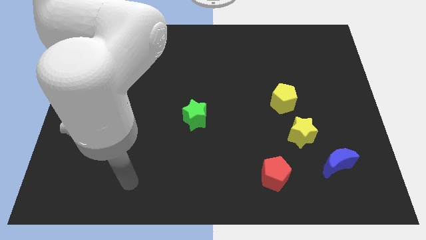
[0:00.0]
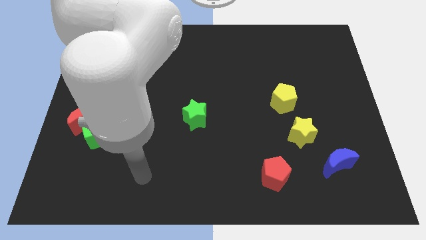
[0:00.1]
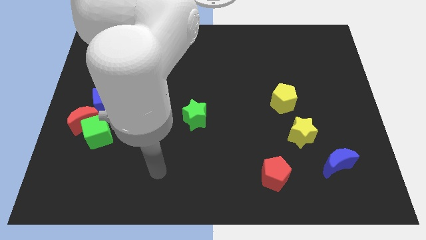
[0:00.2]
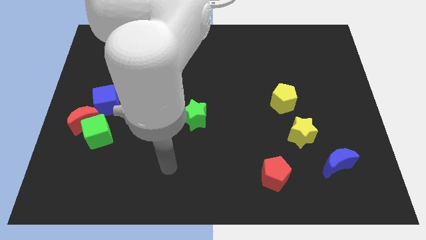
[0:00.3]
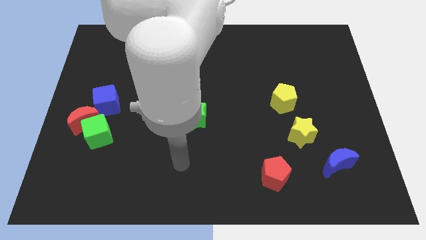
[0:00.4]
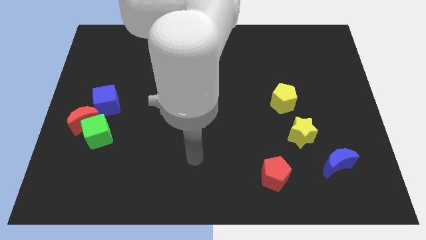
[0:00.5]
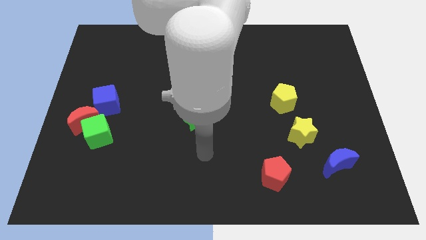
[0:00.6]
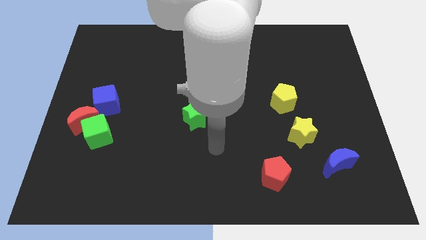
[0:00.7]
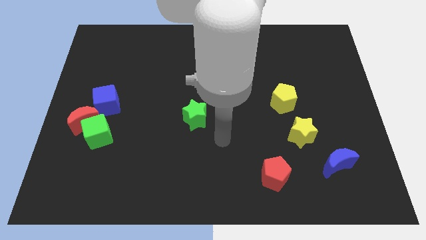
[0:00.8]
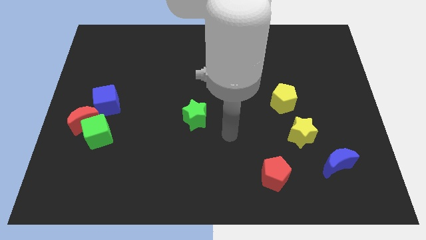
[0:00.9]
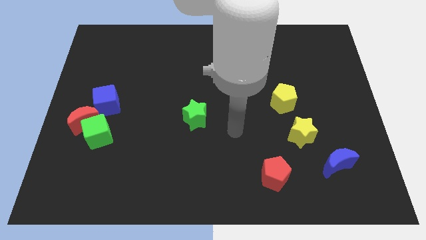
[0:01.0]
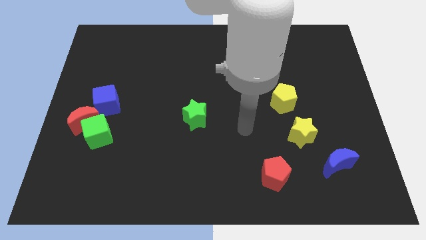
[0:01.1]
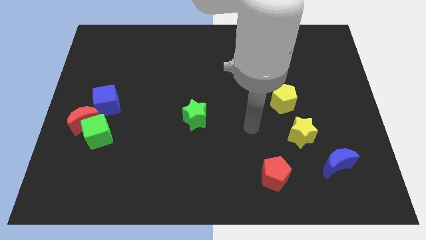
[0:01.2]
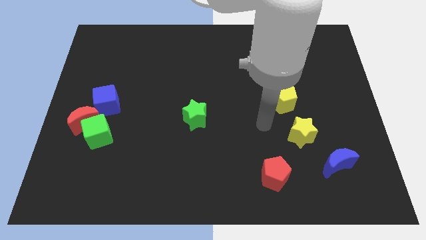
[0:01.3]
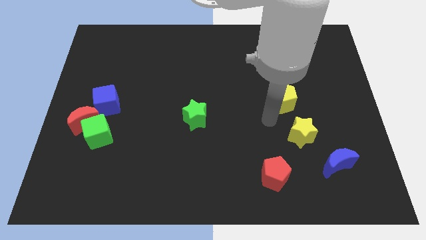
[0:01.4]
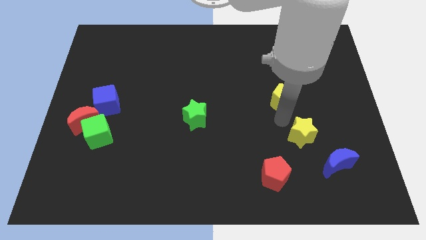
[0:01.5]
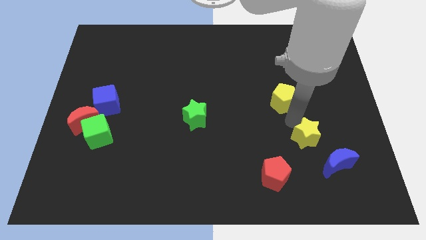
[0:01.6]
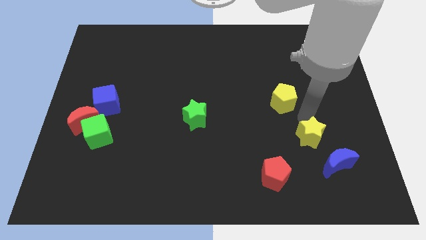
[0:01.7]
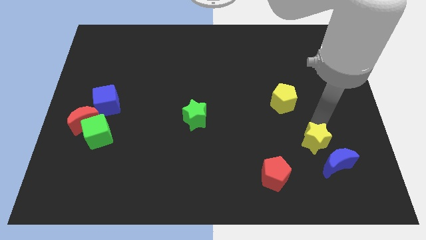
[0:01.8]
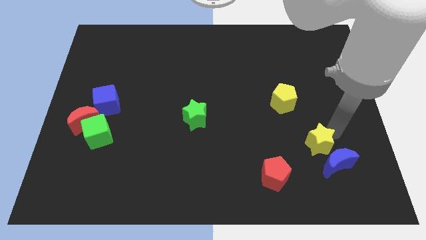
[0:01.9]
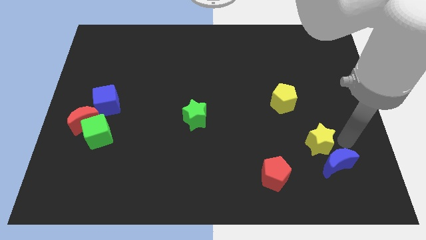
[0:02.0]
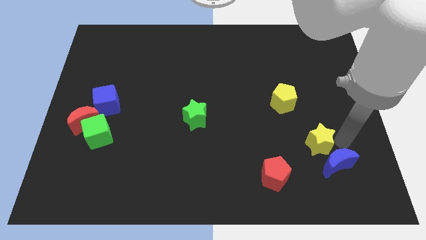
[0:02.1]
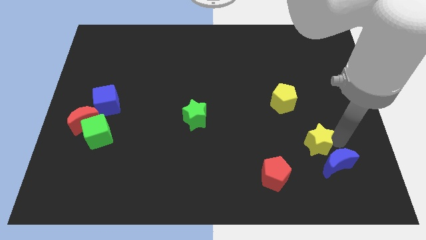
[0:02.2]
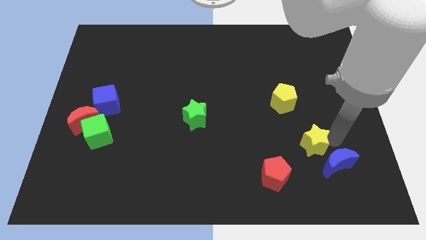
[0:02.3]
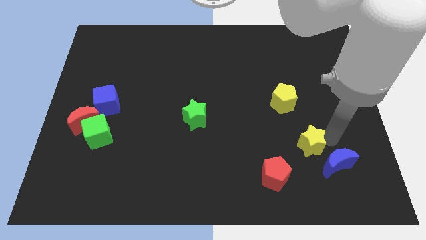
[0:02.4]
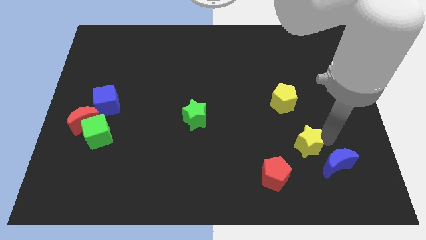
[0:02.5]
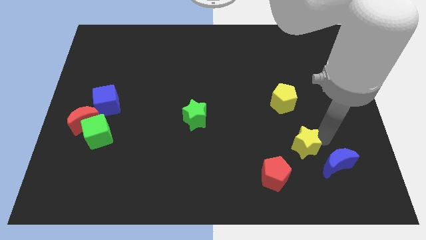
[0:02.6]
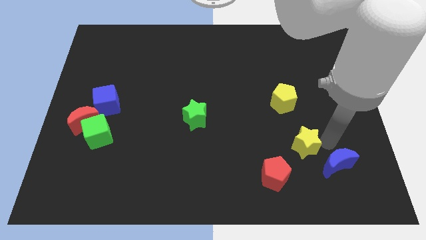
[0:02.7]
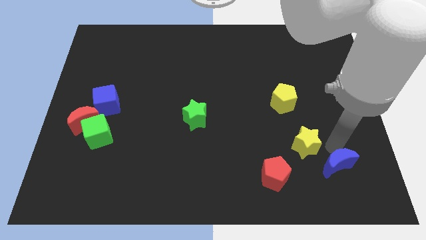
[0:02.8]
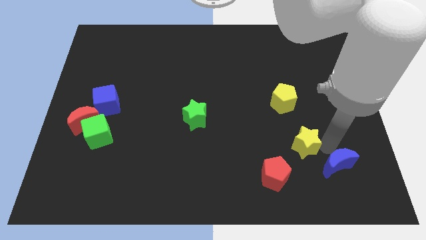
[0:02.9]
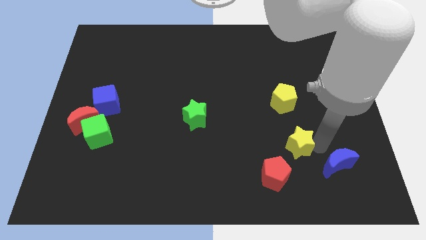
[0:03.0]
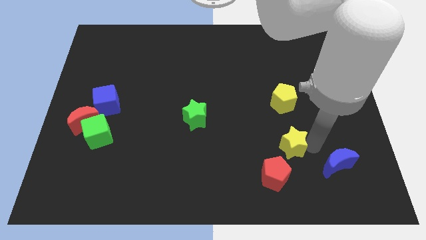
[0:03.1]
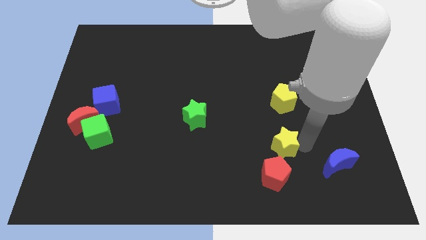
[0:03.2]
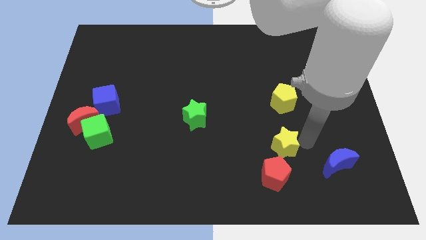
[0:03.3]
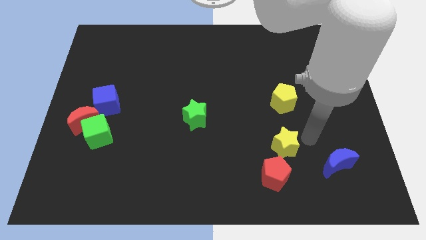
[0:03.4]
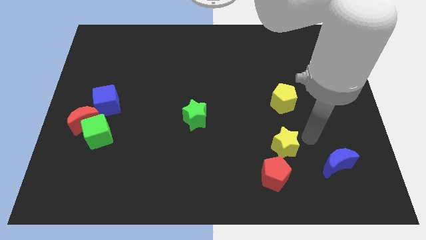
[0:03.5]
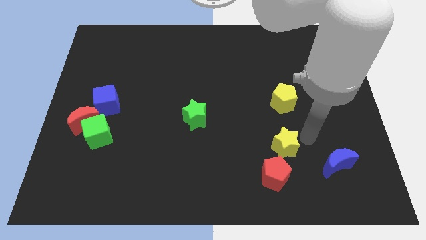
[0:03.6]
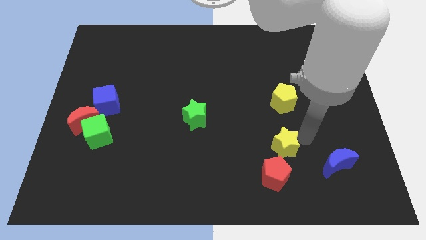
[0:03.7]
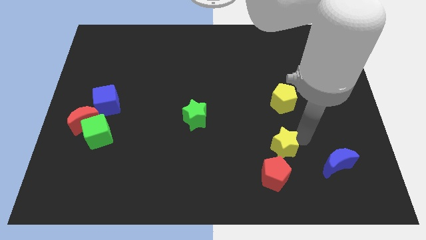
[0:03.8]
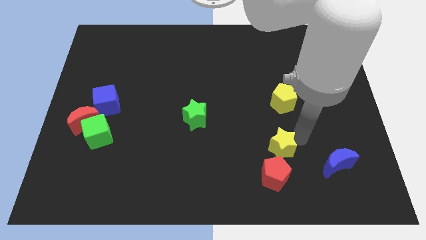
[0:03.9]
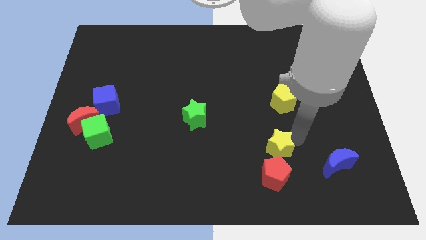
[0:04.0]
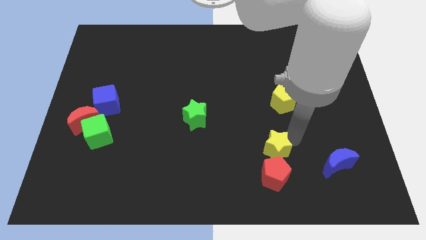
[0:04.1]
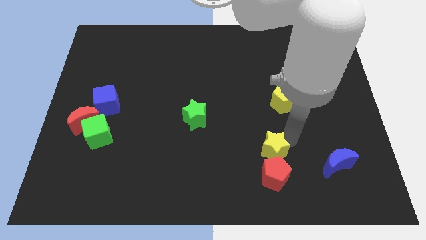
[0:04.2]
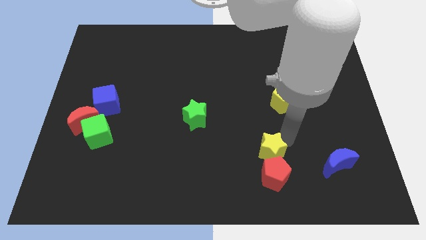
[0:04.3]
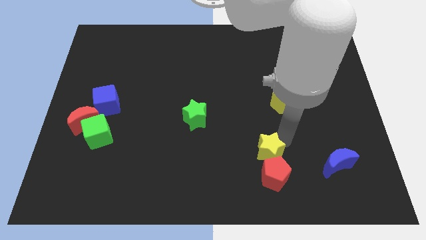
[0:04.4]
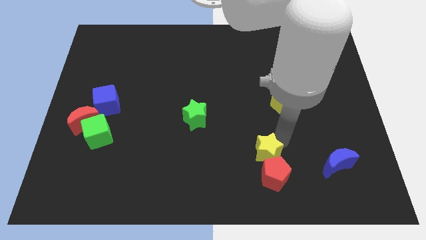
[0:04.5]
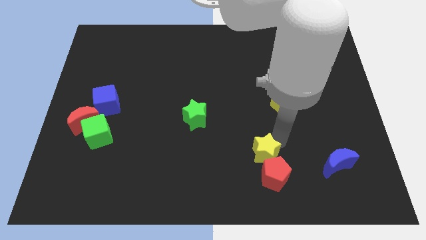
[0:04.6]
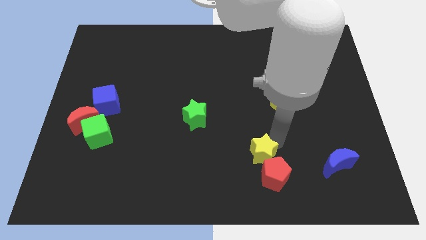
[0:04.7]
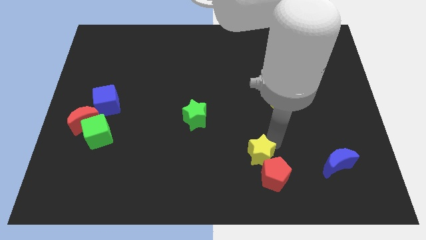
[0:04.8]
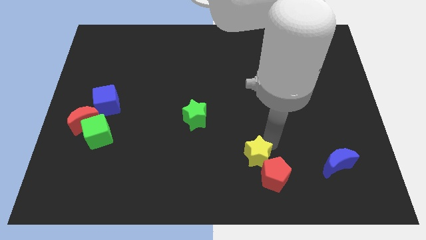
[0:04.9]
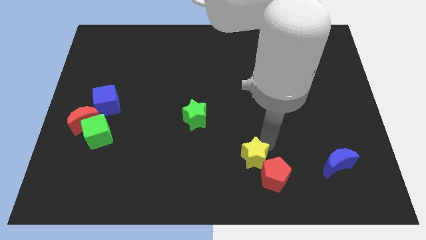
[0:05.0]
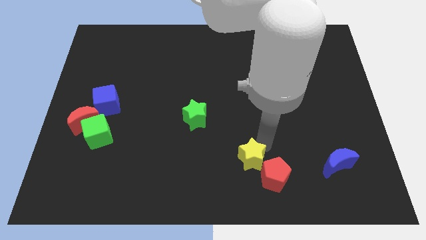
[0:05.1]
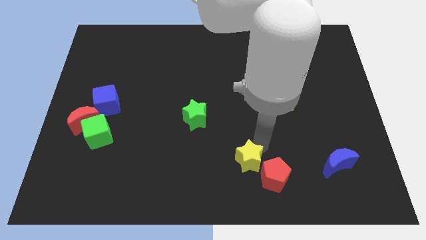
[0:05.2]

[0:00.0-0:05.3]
slide the yellow star to the bottom
